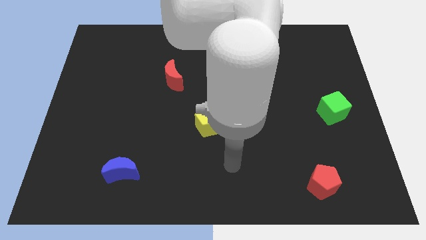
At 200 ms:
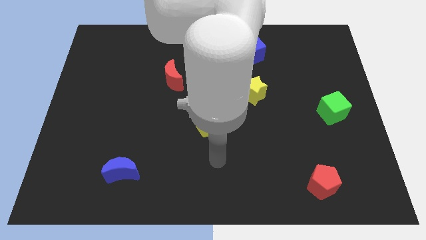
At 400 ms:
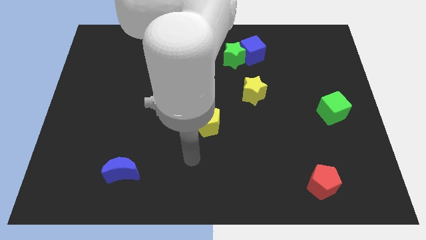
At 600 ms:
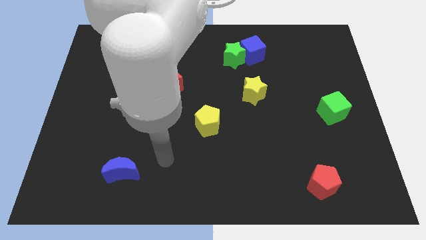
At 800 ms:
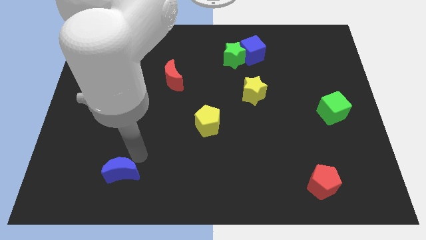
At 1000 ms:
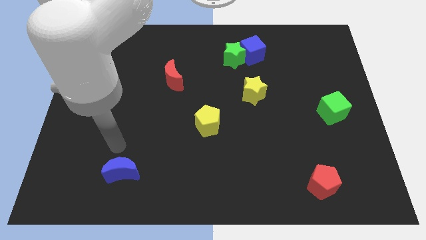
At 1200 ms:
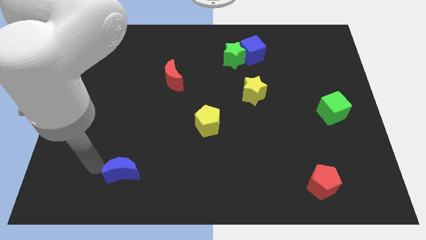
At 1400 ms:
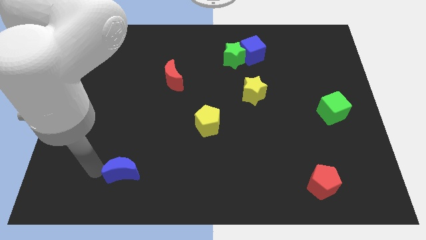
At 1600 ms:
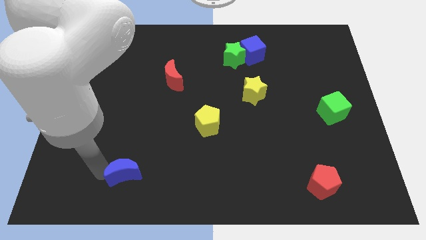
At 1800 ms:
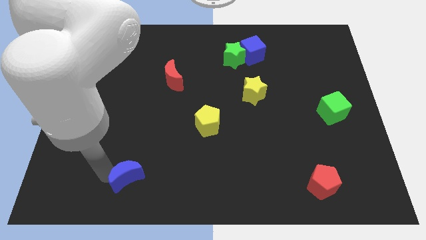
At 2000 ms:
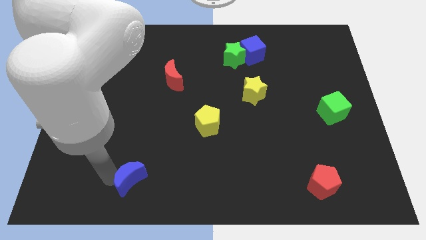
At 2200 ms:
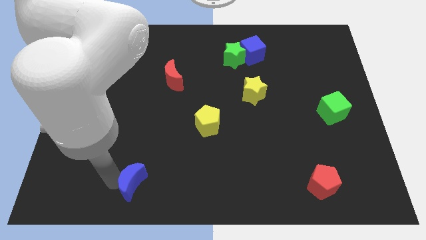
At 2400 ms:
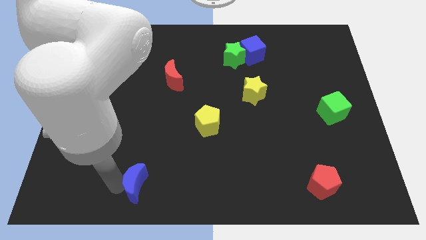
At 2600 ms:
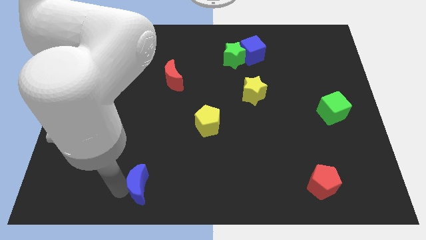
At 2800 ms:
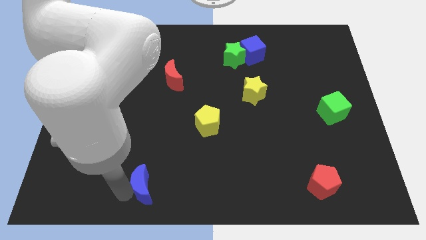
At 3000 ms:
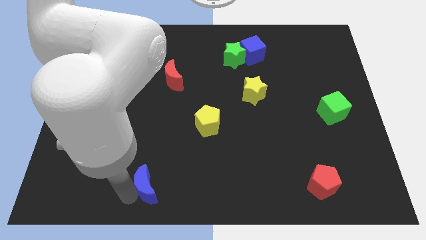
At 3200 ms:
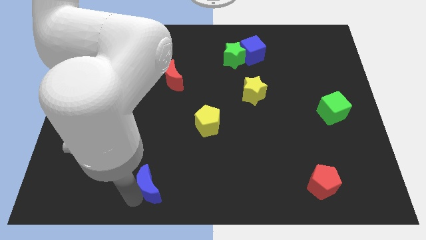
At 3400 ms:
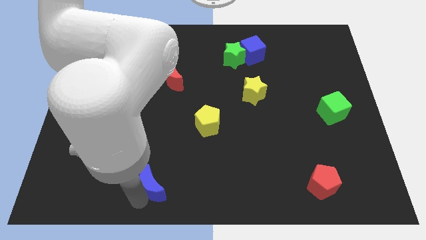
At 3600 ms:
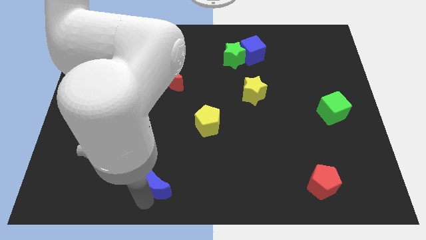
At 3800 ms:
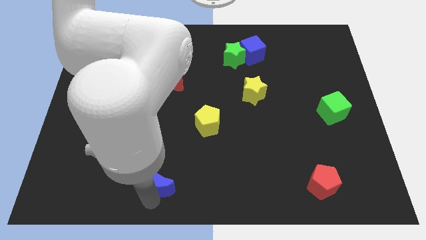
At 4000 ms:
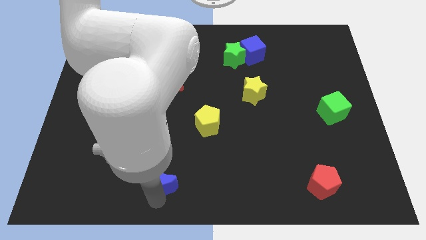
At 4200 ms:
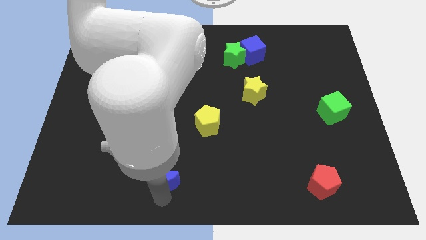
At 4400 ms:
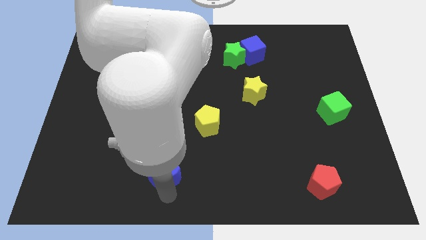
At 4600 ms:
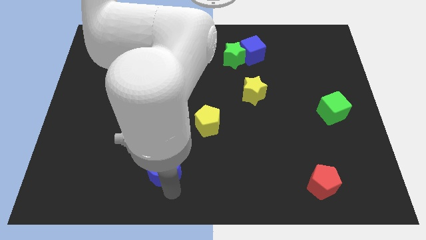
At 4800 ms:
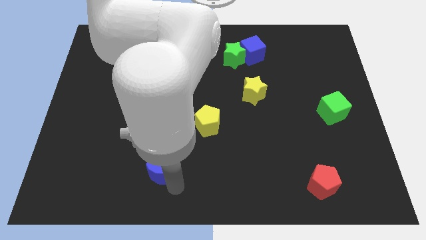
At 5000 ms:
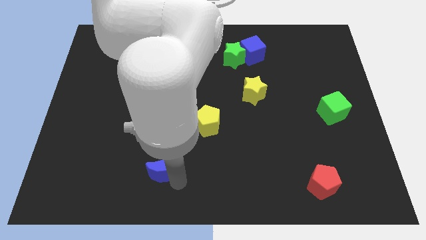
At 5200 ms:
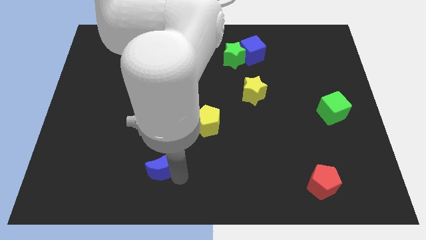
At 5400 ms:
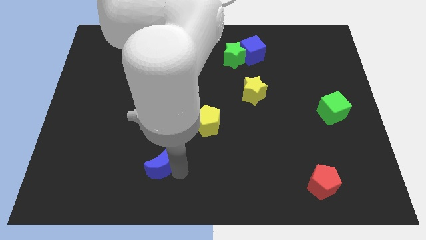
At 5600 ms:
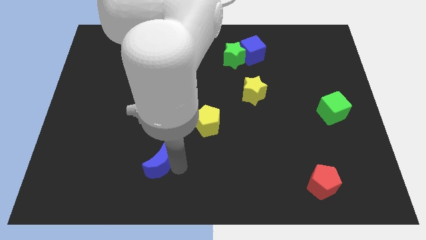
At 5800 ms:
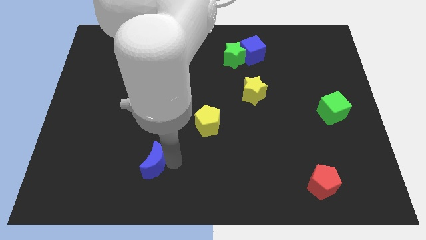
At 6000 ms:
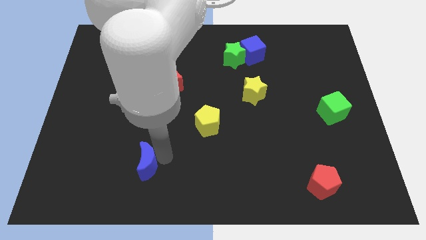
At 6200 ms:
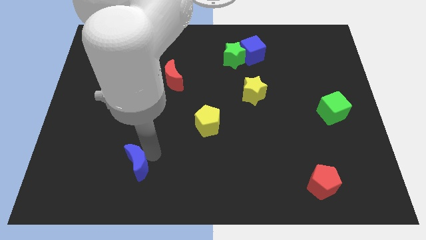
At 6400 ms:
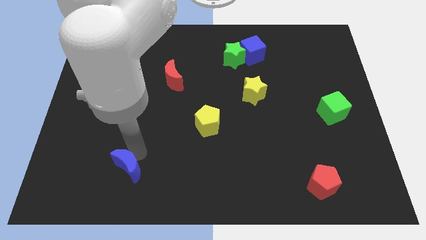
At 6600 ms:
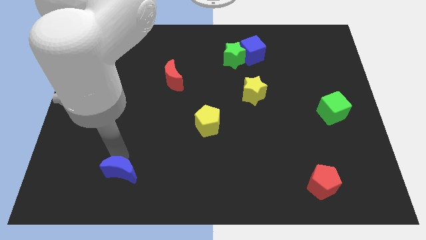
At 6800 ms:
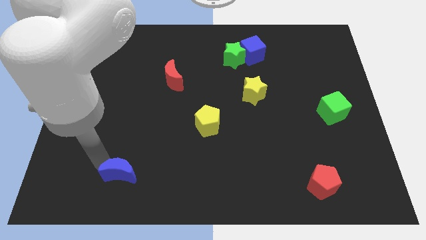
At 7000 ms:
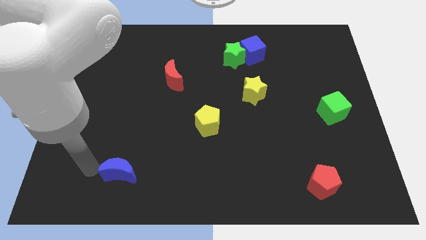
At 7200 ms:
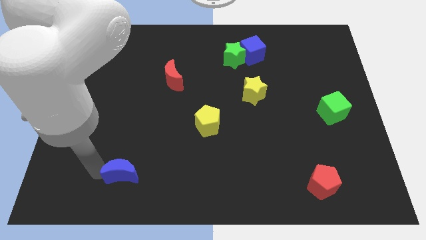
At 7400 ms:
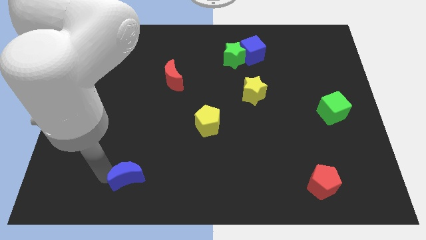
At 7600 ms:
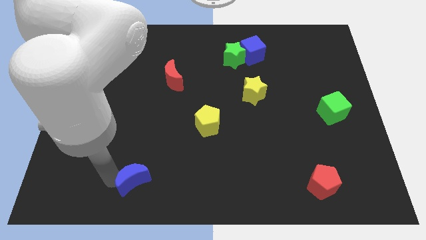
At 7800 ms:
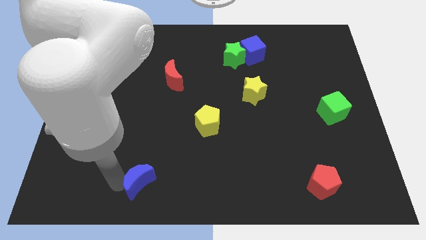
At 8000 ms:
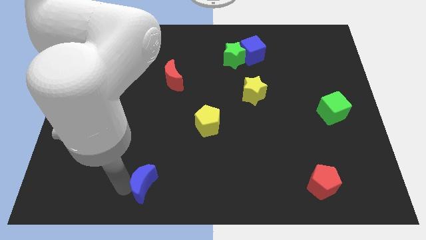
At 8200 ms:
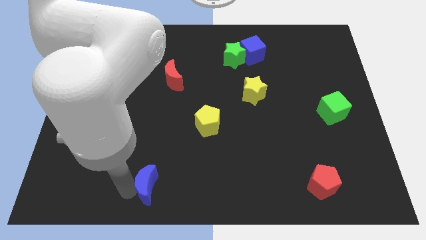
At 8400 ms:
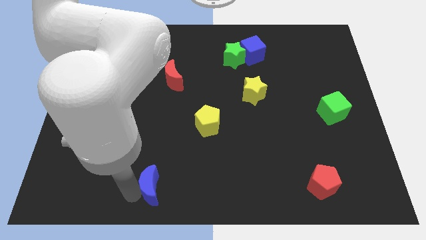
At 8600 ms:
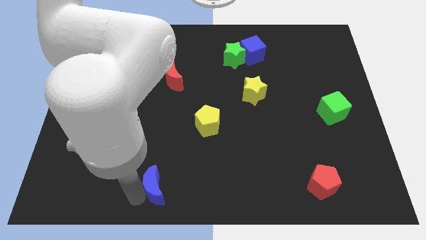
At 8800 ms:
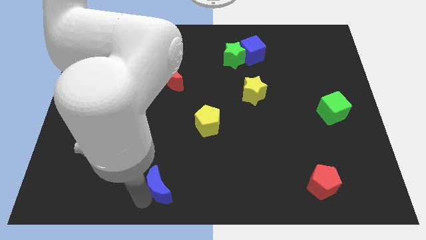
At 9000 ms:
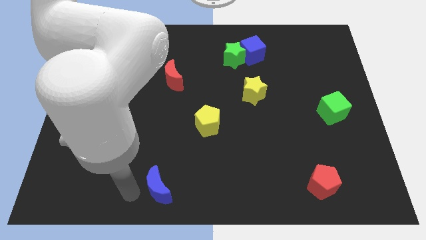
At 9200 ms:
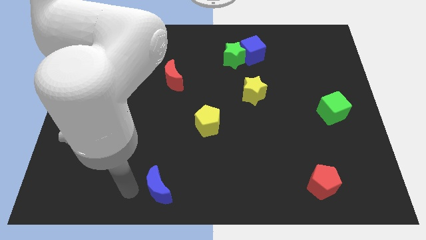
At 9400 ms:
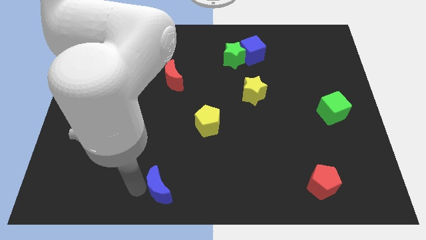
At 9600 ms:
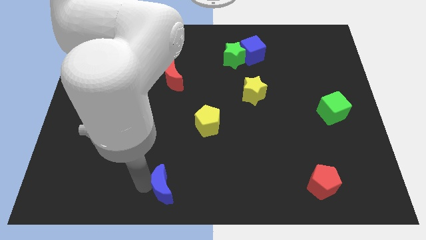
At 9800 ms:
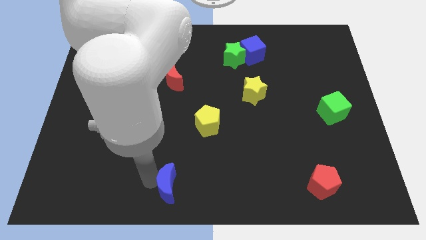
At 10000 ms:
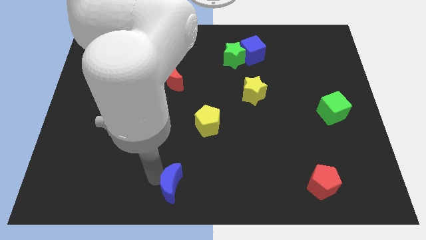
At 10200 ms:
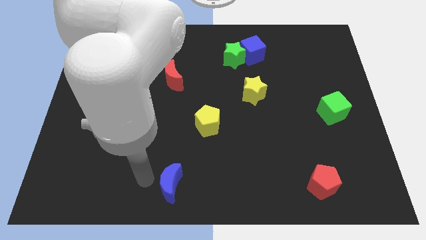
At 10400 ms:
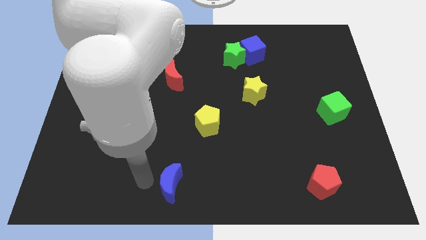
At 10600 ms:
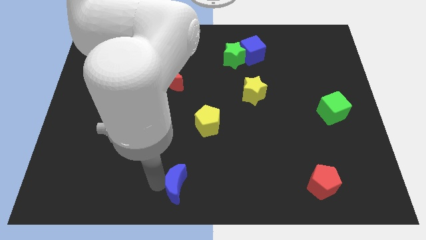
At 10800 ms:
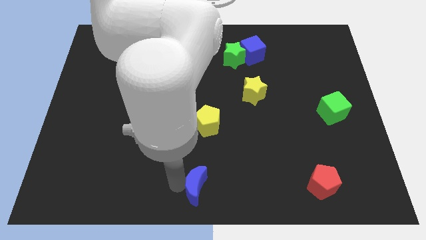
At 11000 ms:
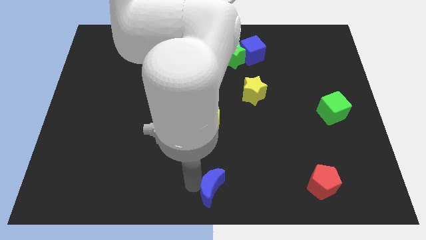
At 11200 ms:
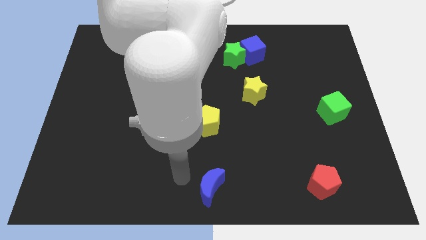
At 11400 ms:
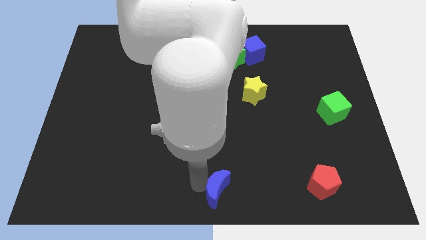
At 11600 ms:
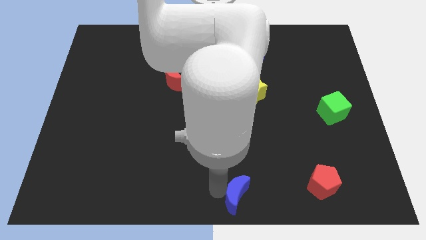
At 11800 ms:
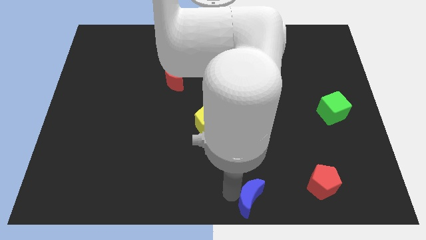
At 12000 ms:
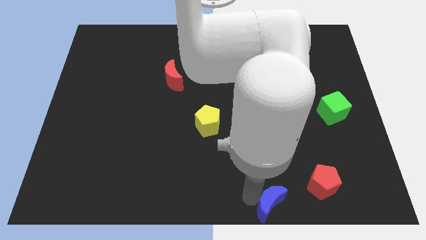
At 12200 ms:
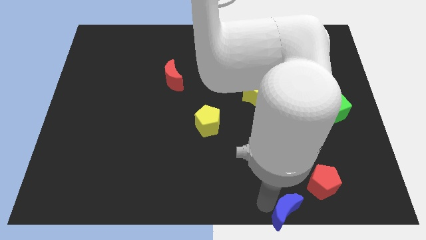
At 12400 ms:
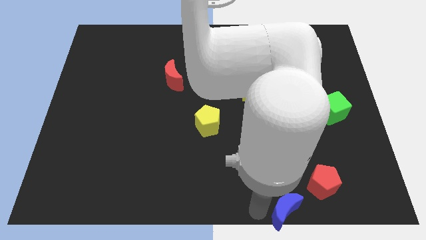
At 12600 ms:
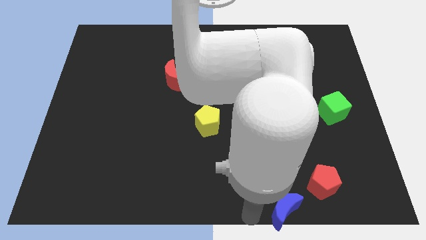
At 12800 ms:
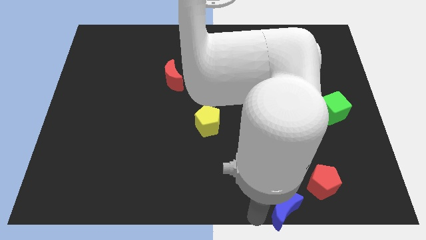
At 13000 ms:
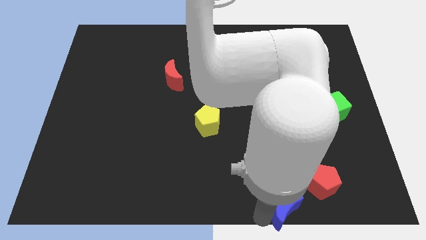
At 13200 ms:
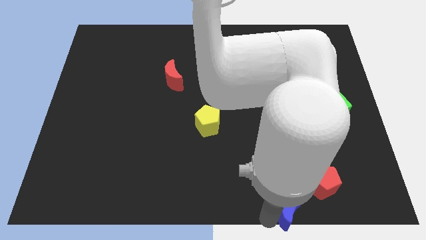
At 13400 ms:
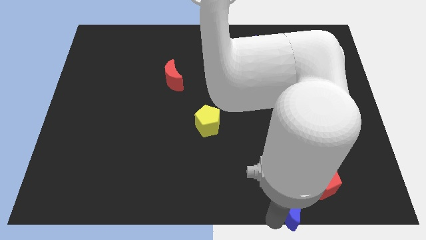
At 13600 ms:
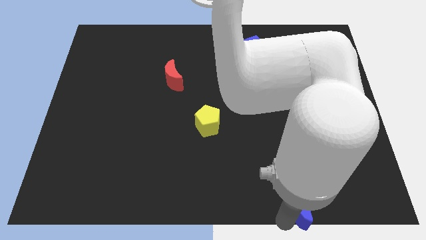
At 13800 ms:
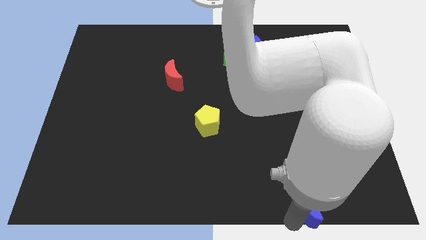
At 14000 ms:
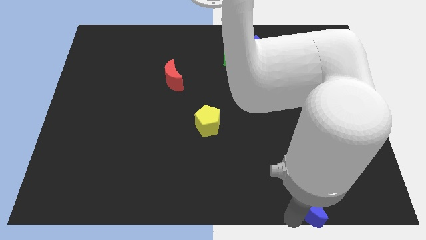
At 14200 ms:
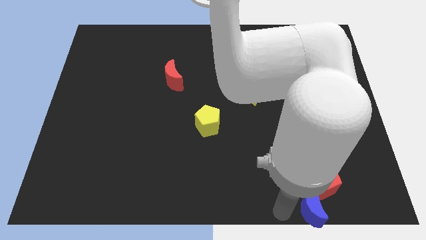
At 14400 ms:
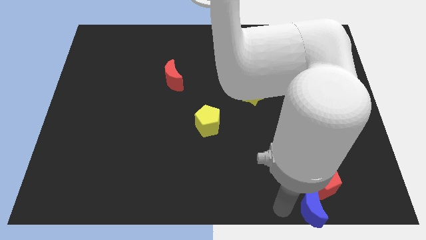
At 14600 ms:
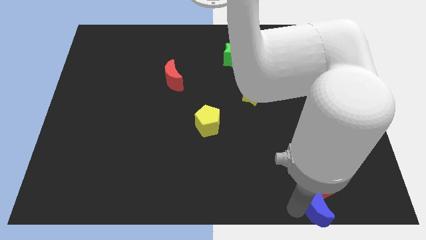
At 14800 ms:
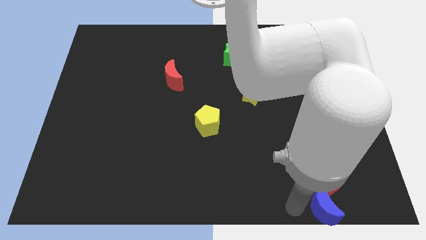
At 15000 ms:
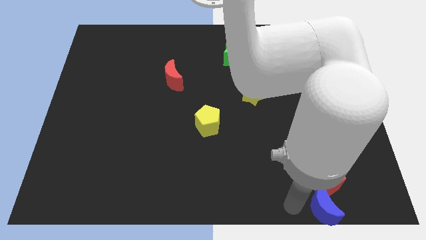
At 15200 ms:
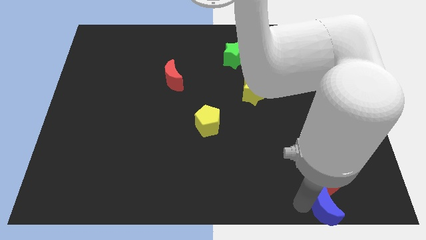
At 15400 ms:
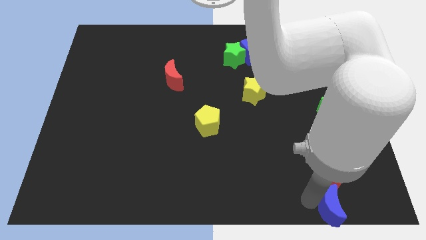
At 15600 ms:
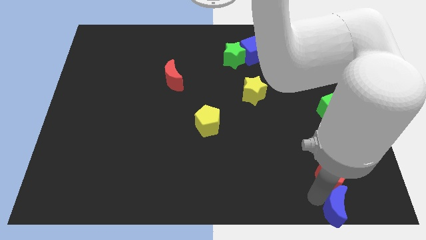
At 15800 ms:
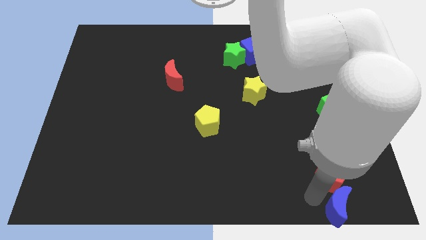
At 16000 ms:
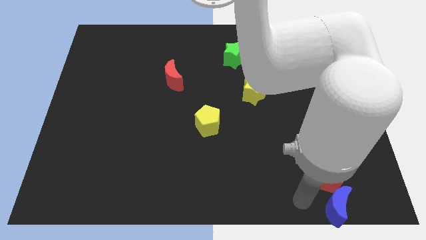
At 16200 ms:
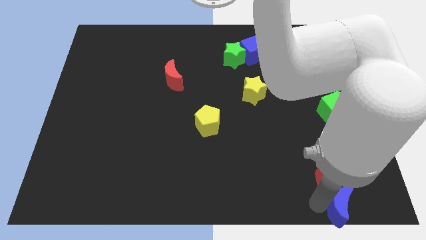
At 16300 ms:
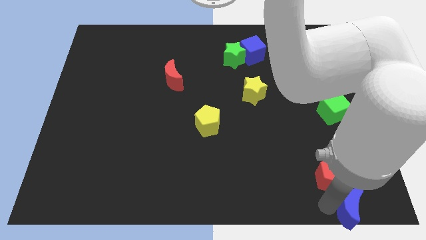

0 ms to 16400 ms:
slide the blue moon to the bottom right

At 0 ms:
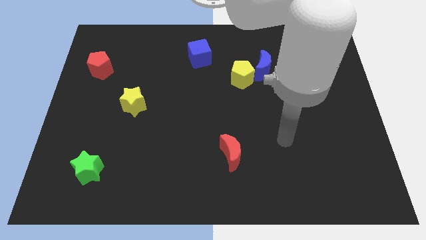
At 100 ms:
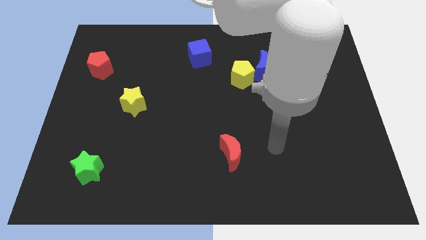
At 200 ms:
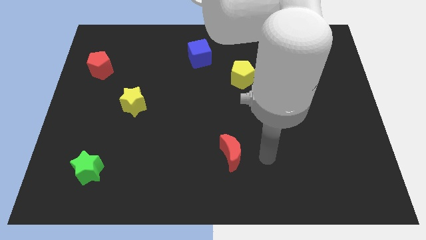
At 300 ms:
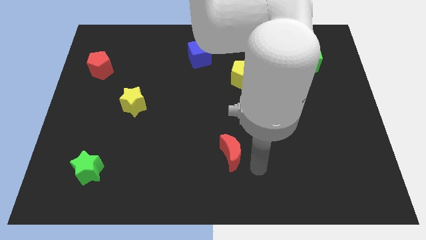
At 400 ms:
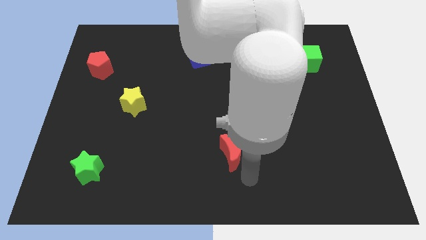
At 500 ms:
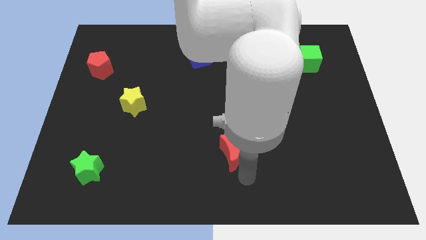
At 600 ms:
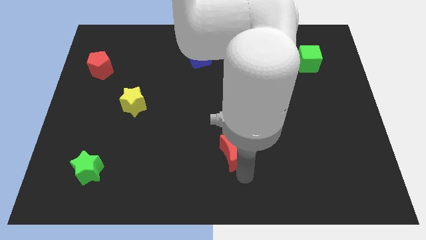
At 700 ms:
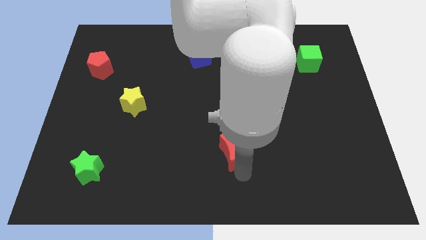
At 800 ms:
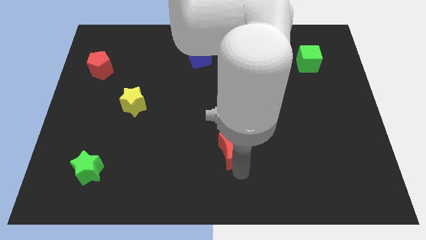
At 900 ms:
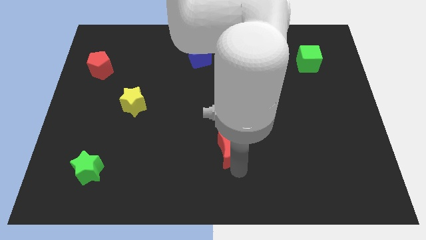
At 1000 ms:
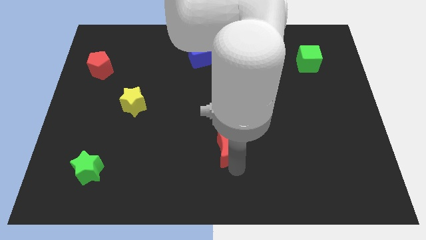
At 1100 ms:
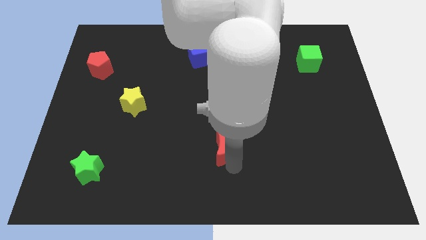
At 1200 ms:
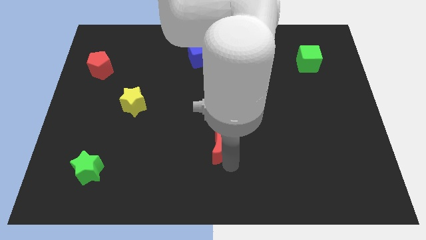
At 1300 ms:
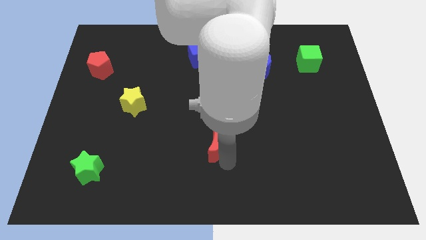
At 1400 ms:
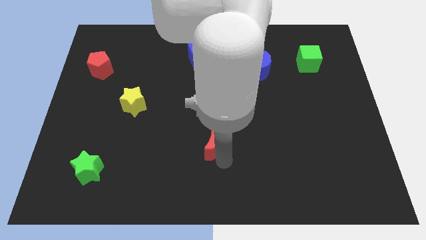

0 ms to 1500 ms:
put the red moon to the center
